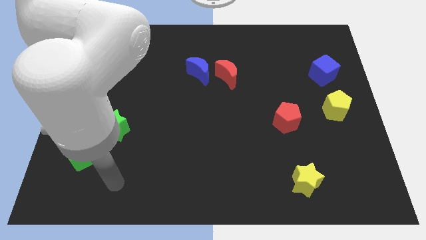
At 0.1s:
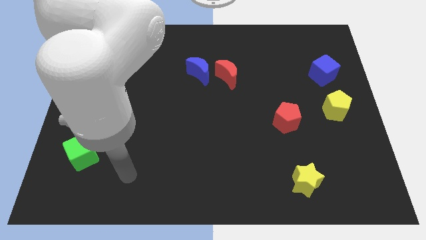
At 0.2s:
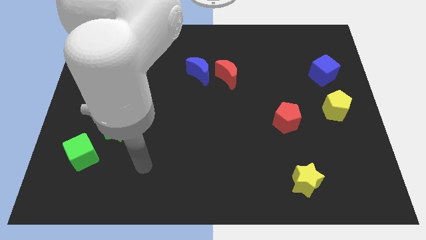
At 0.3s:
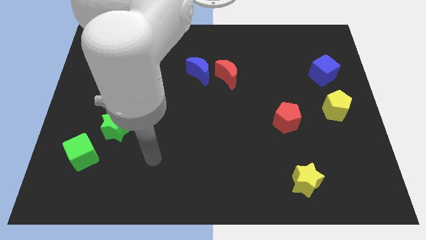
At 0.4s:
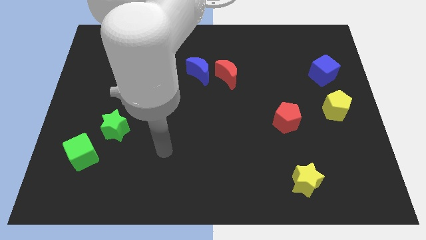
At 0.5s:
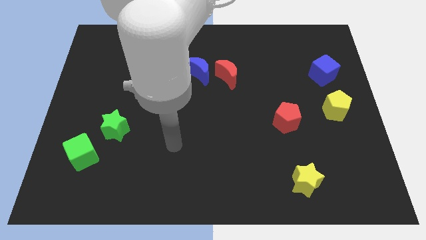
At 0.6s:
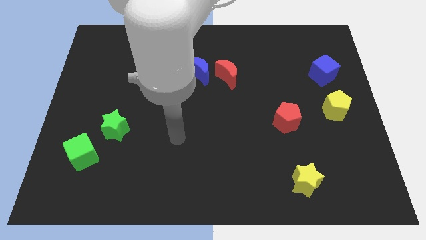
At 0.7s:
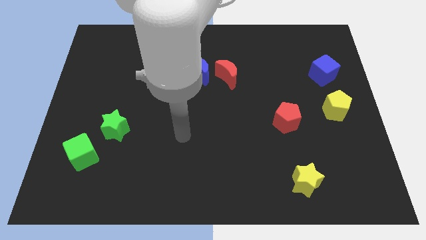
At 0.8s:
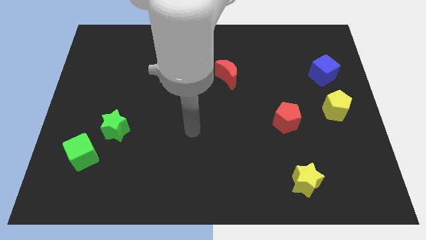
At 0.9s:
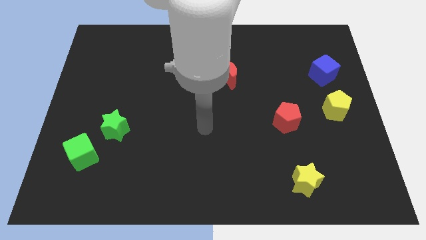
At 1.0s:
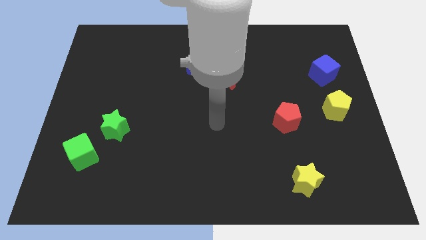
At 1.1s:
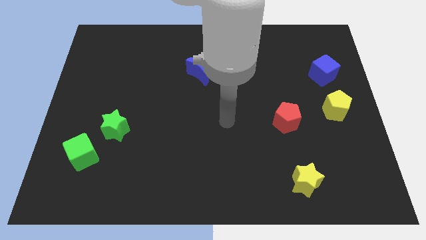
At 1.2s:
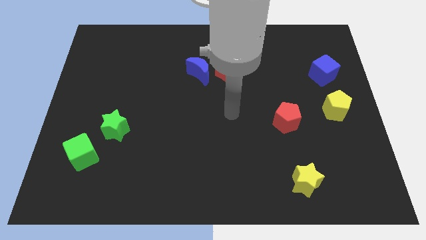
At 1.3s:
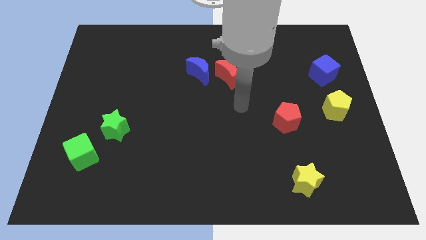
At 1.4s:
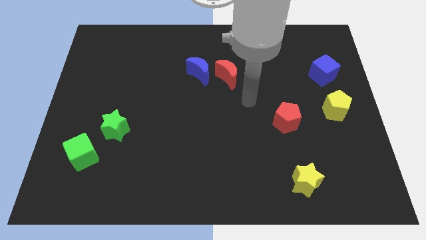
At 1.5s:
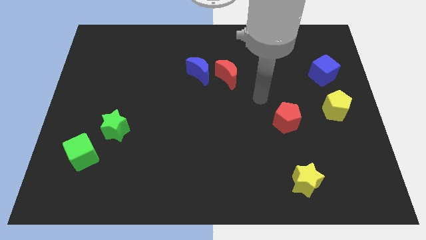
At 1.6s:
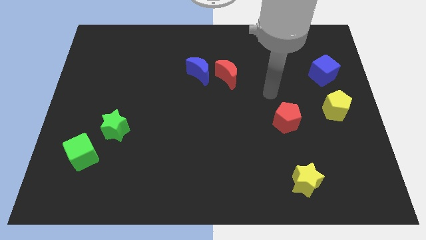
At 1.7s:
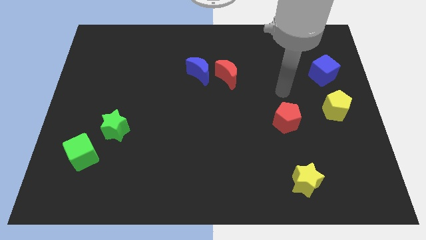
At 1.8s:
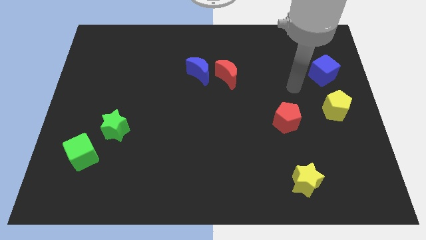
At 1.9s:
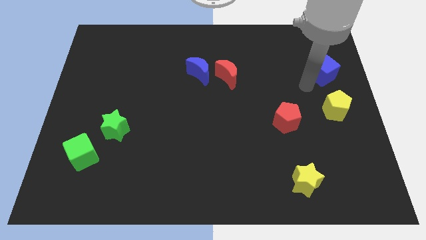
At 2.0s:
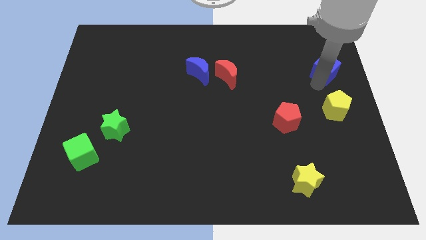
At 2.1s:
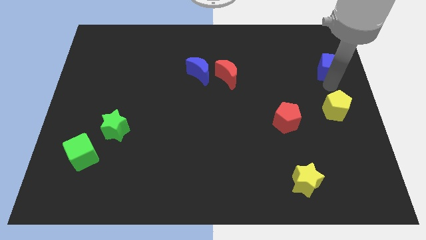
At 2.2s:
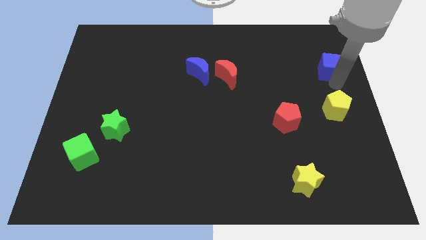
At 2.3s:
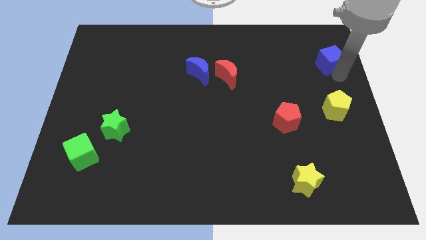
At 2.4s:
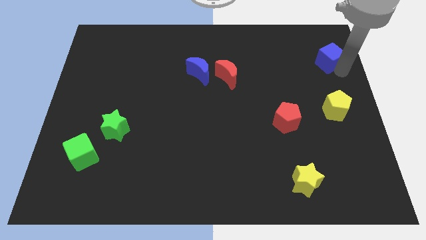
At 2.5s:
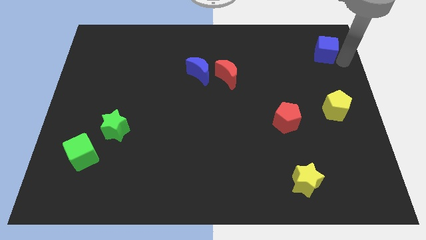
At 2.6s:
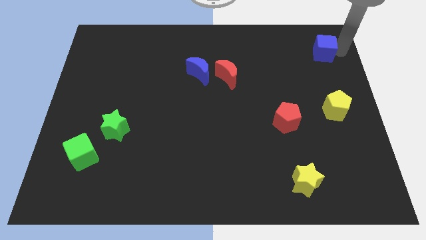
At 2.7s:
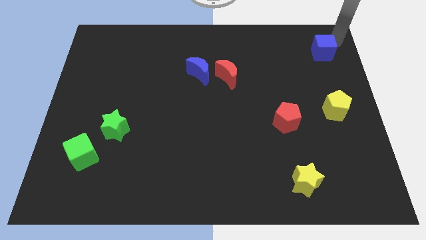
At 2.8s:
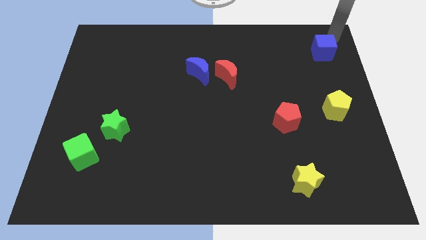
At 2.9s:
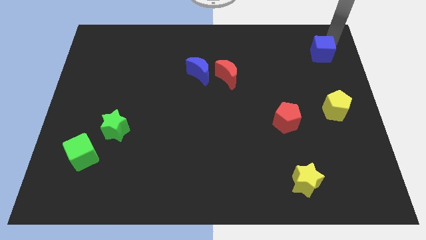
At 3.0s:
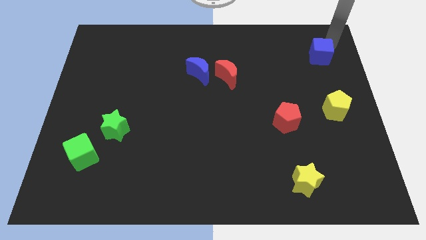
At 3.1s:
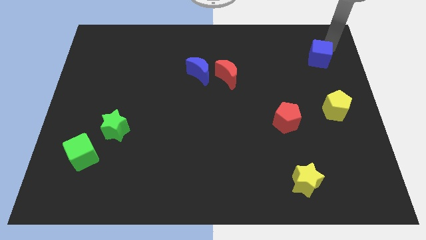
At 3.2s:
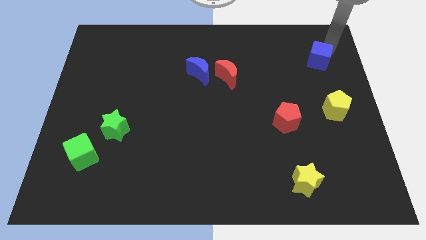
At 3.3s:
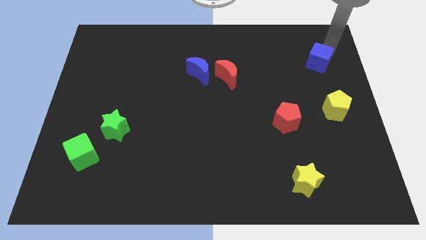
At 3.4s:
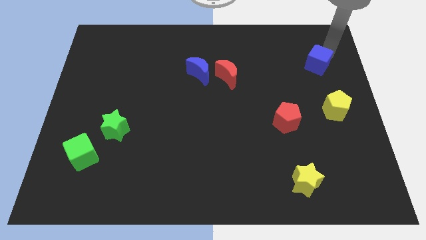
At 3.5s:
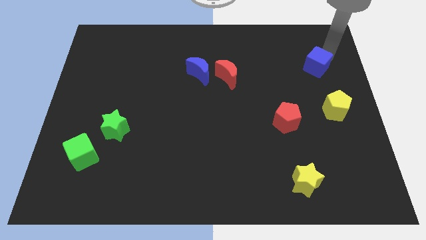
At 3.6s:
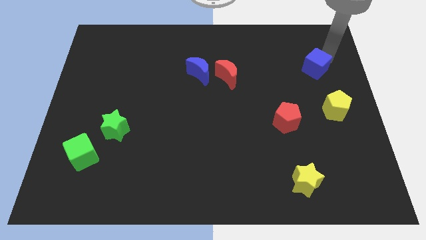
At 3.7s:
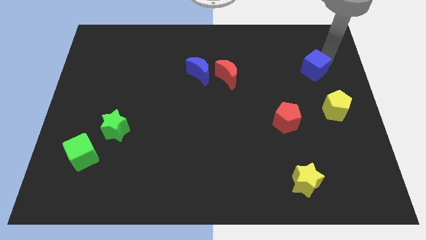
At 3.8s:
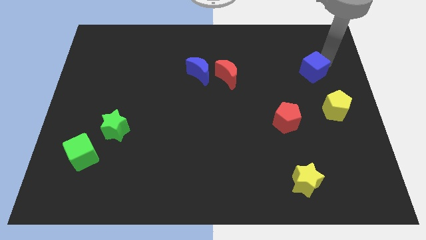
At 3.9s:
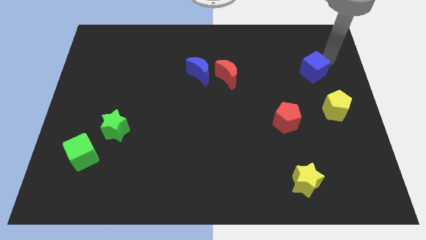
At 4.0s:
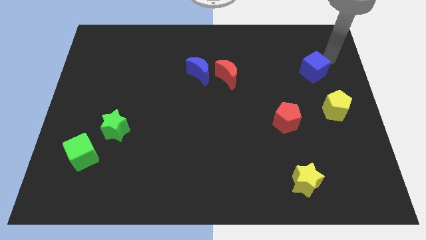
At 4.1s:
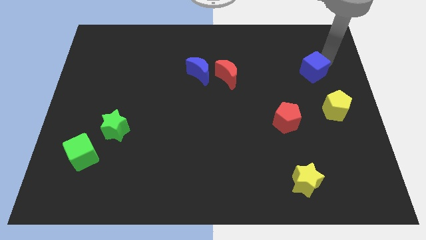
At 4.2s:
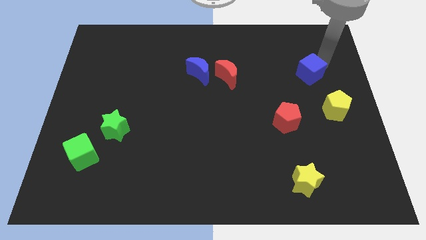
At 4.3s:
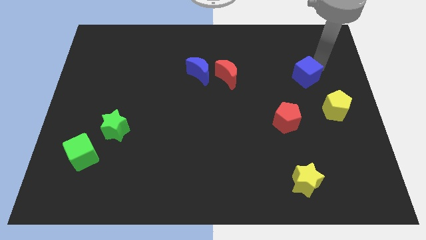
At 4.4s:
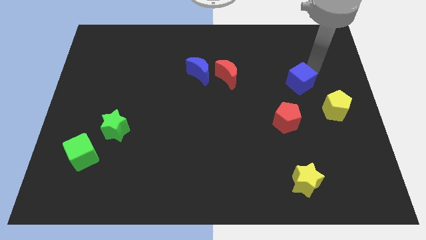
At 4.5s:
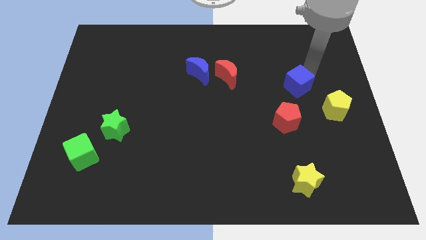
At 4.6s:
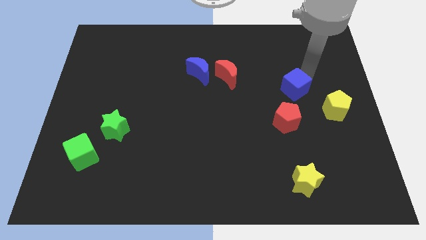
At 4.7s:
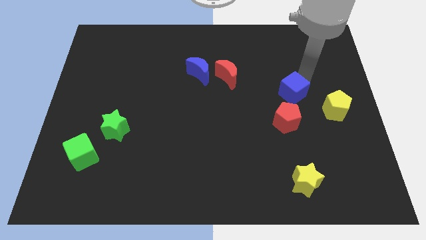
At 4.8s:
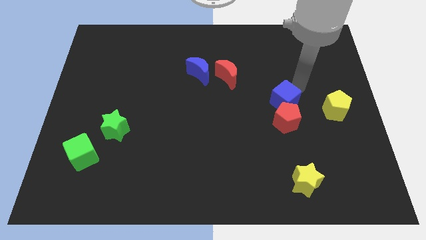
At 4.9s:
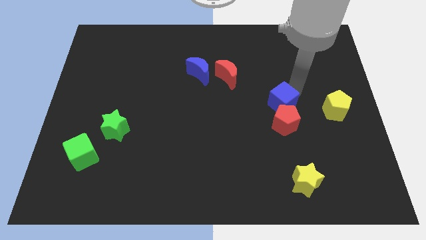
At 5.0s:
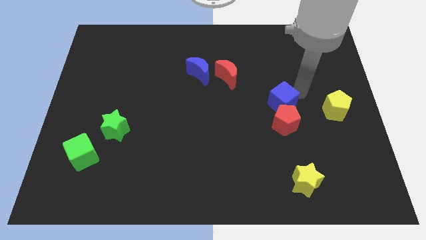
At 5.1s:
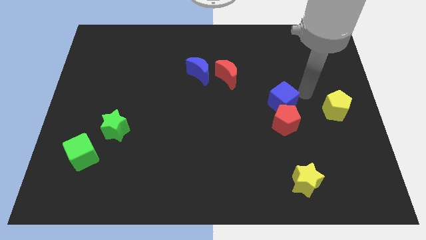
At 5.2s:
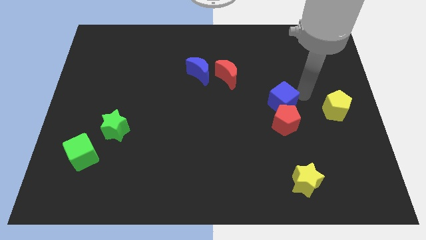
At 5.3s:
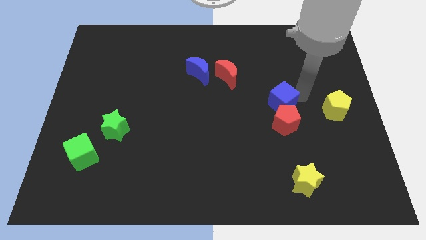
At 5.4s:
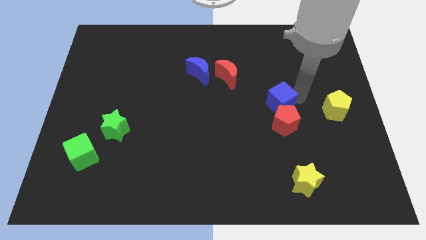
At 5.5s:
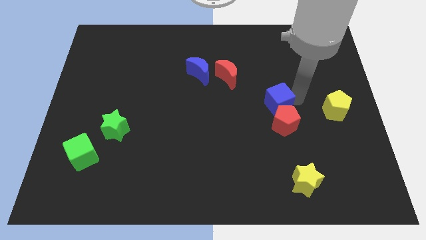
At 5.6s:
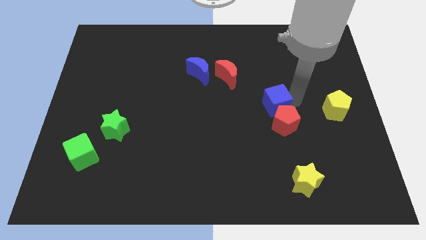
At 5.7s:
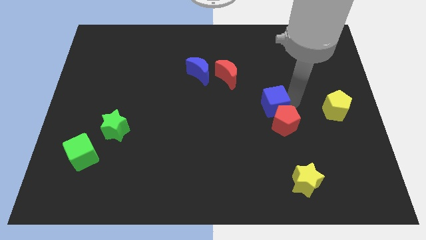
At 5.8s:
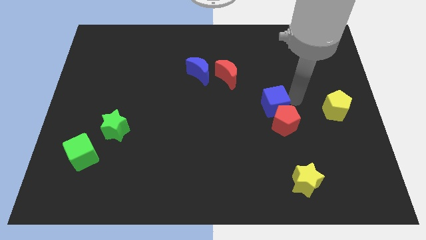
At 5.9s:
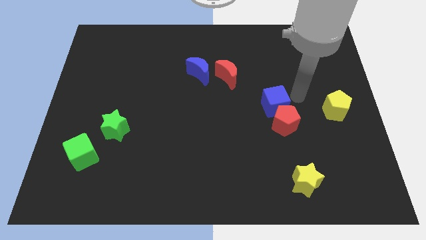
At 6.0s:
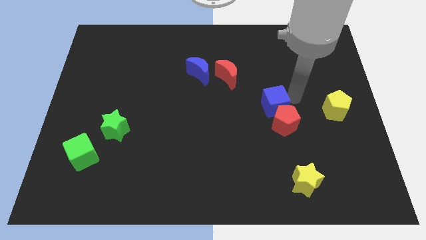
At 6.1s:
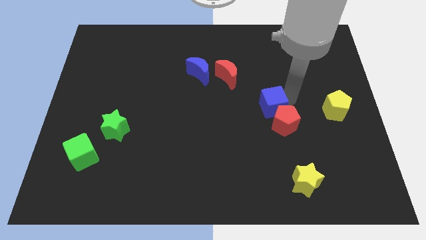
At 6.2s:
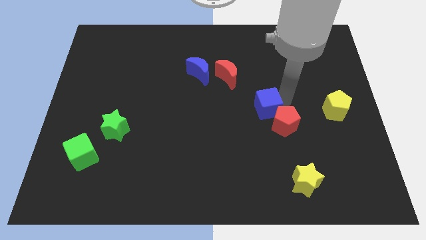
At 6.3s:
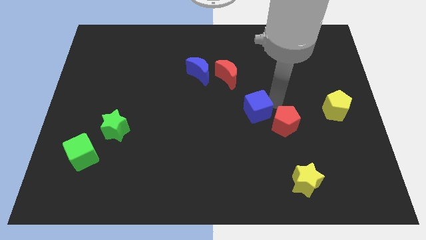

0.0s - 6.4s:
slide the blue cube diagonally down and left

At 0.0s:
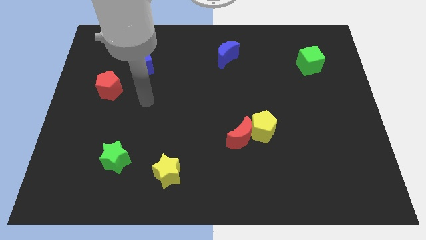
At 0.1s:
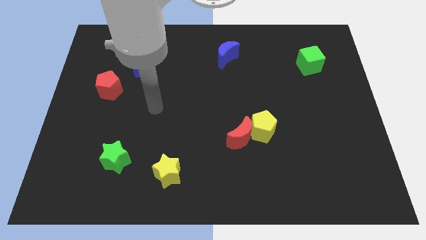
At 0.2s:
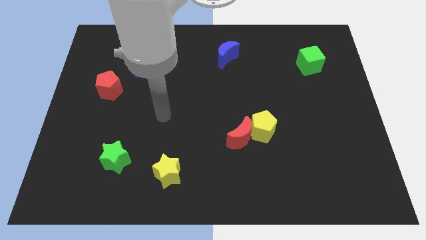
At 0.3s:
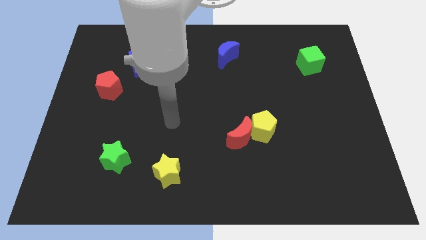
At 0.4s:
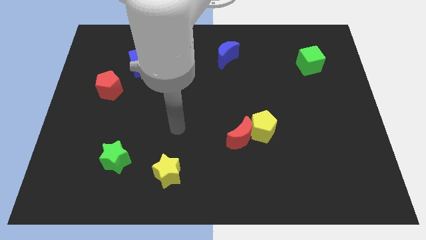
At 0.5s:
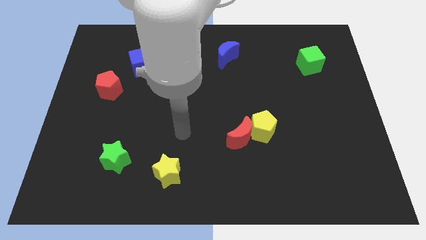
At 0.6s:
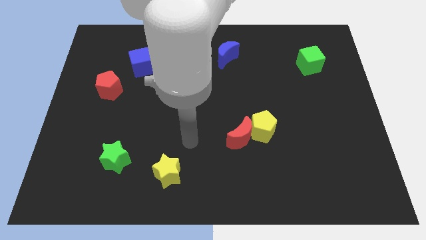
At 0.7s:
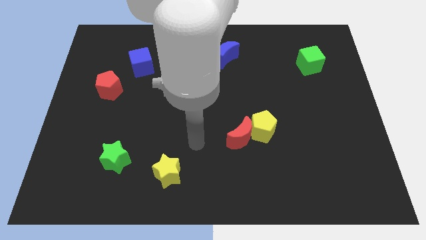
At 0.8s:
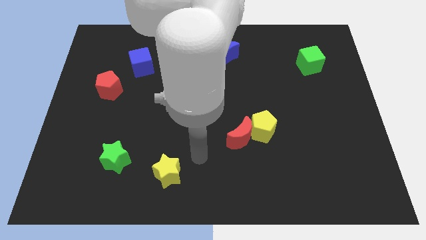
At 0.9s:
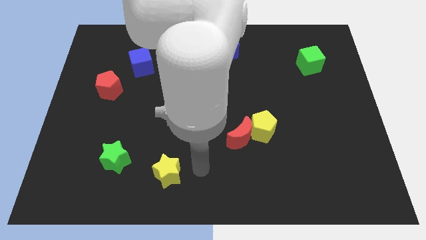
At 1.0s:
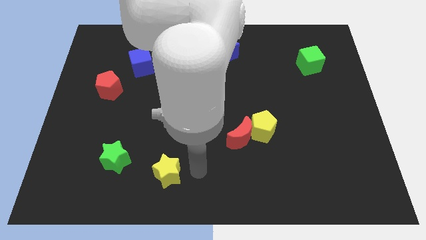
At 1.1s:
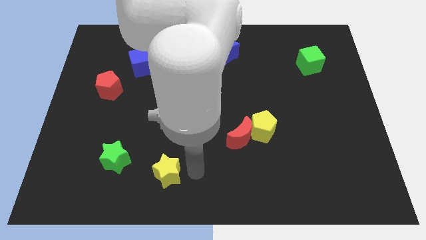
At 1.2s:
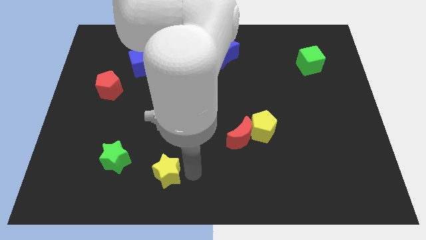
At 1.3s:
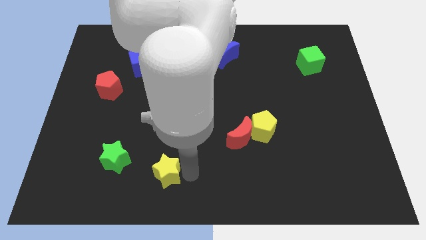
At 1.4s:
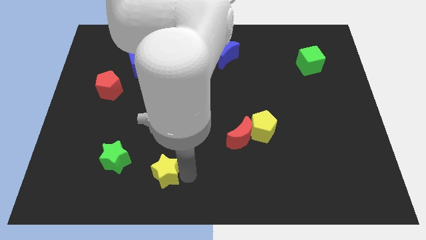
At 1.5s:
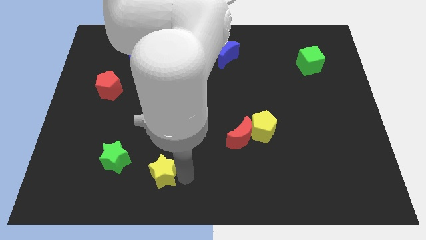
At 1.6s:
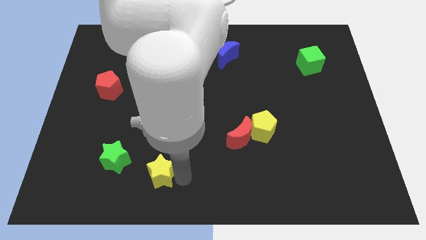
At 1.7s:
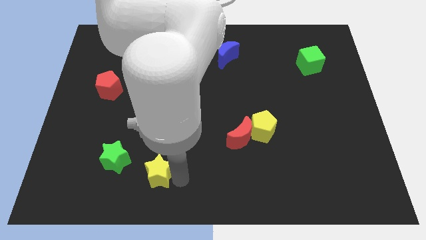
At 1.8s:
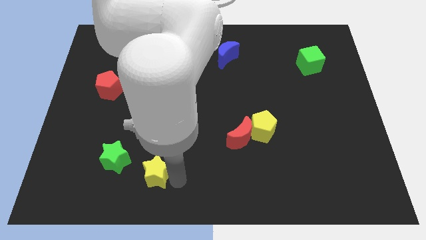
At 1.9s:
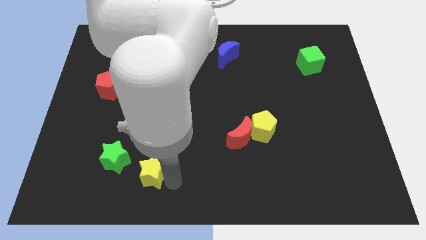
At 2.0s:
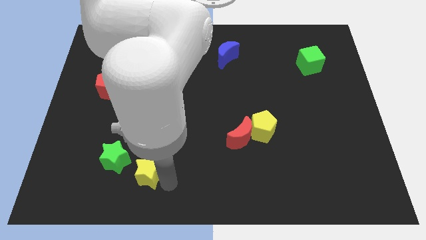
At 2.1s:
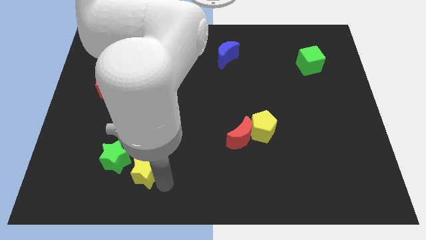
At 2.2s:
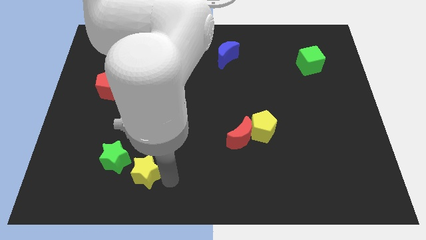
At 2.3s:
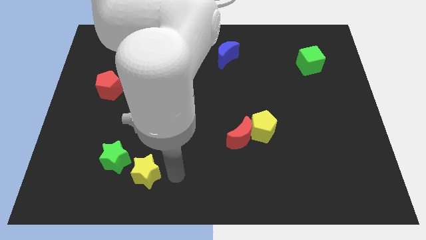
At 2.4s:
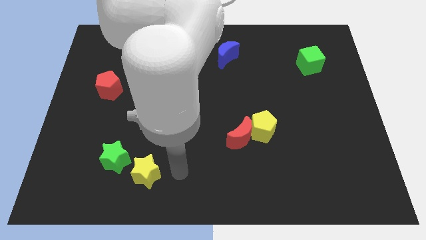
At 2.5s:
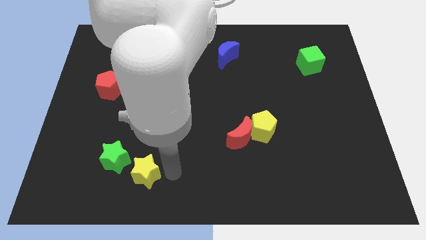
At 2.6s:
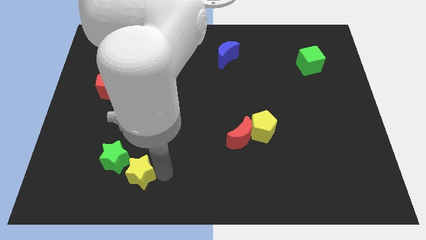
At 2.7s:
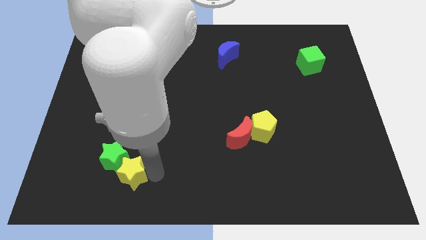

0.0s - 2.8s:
slightly move the yellow star to the left
